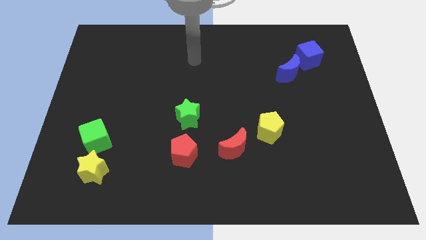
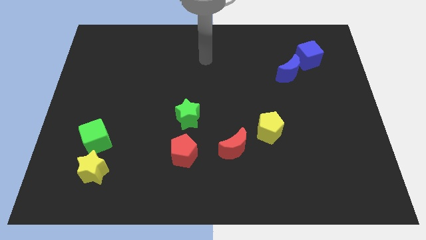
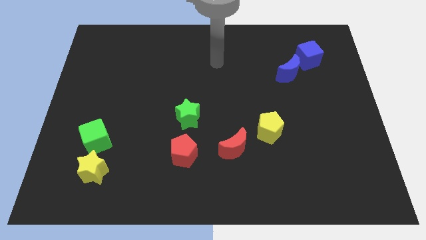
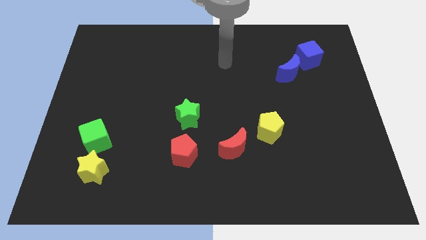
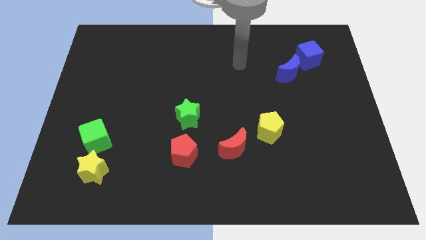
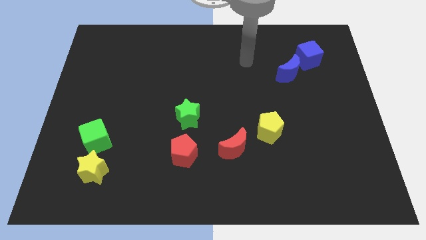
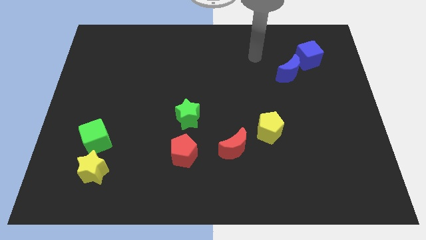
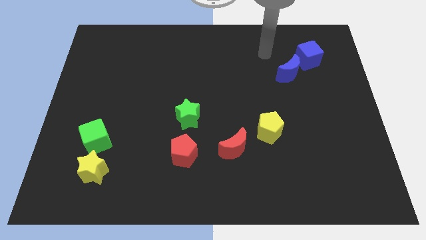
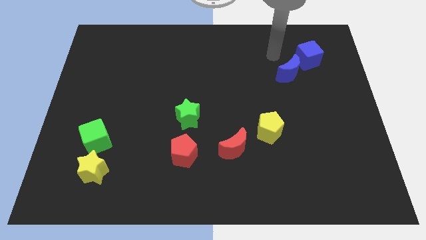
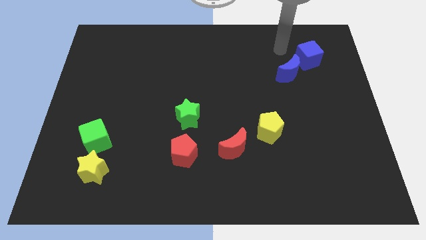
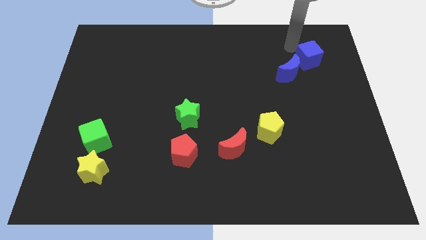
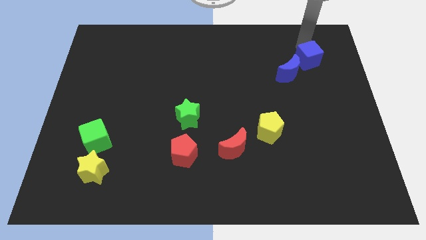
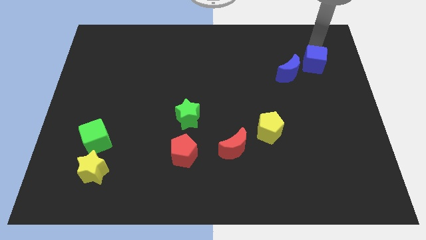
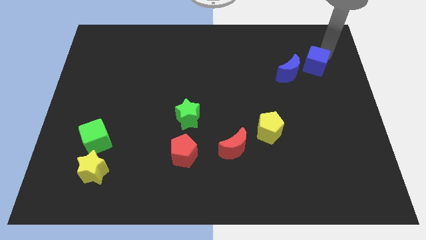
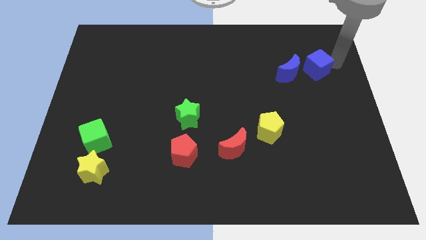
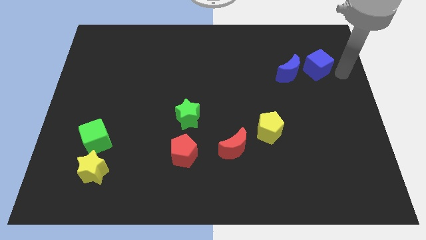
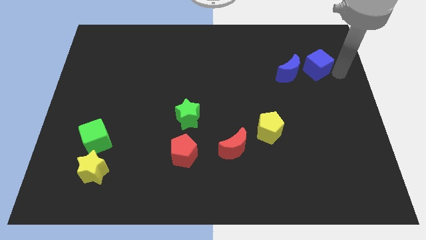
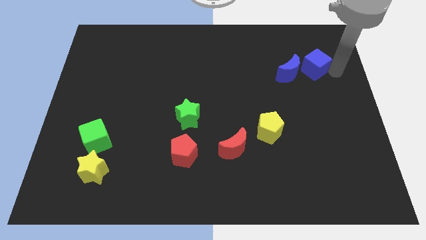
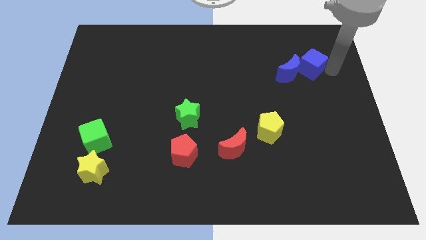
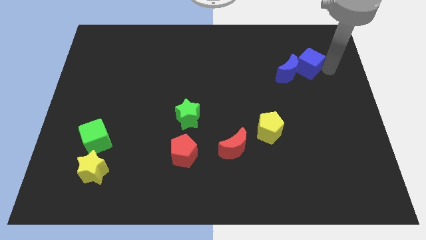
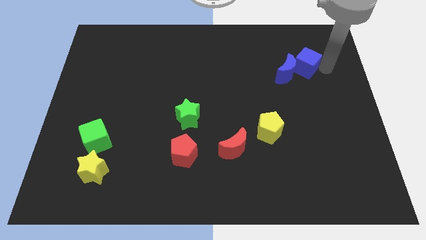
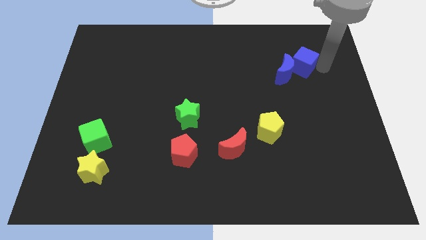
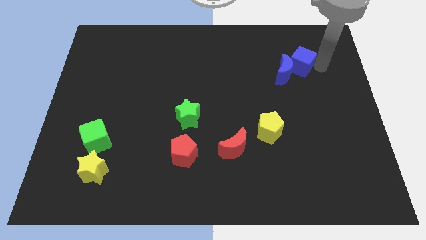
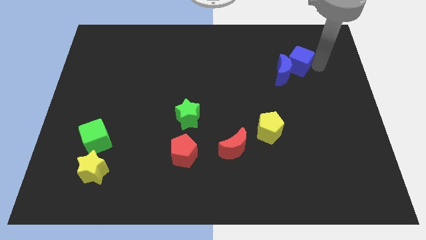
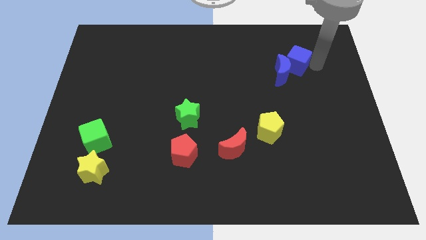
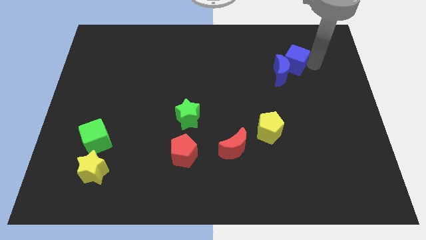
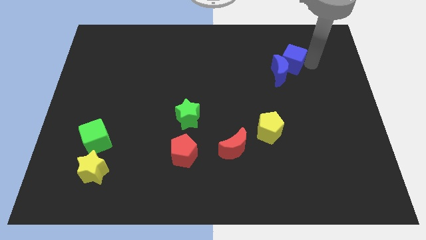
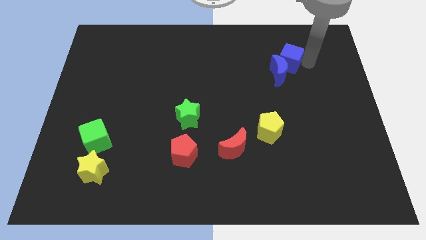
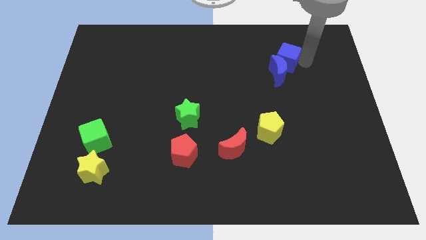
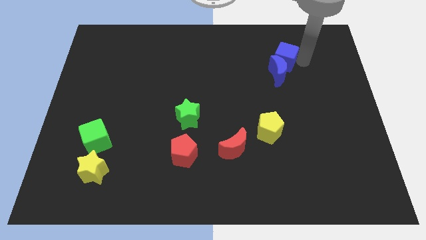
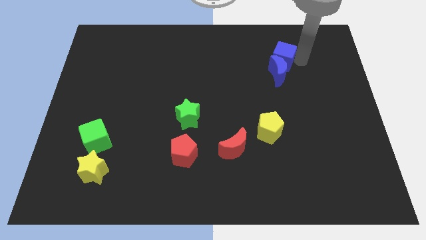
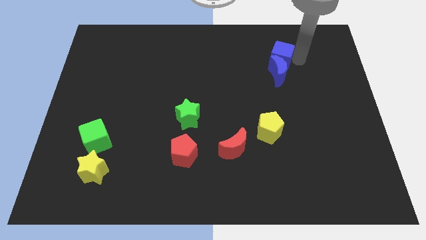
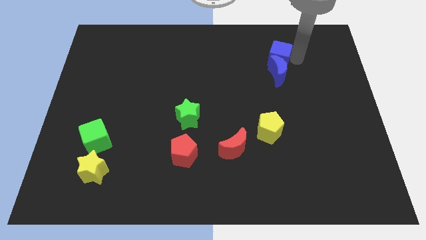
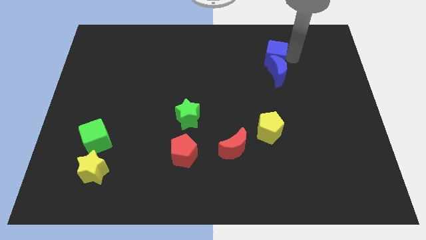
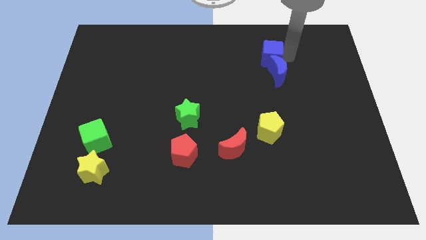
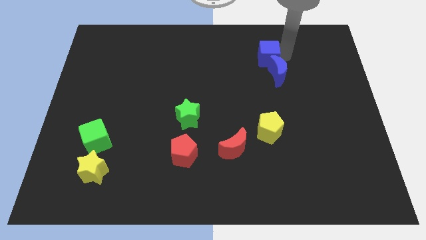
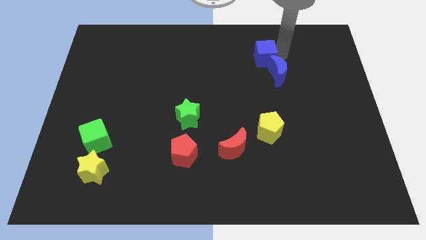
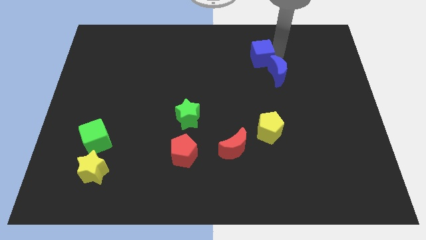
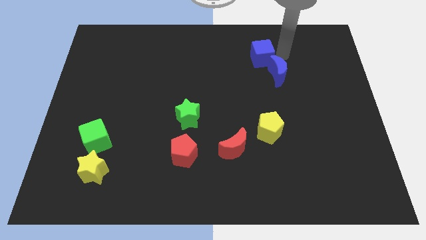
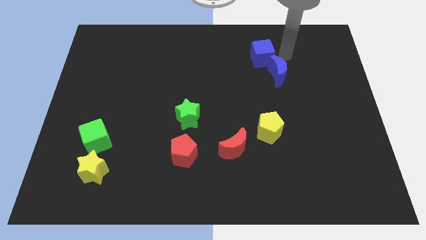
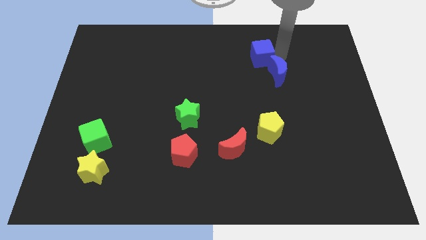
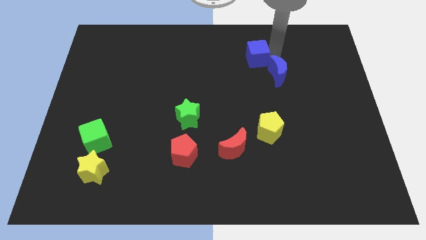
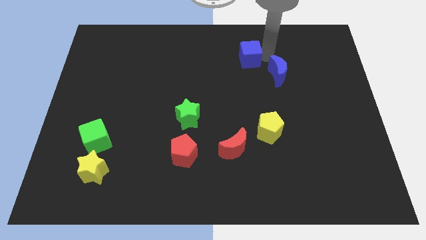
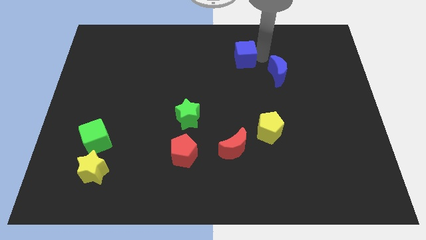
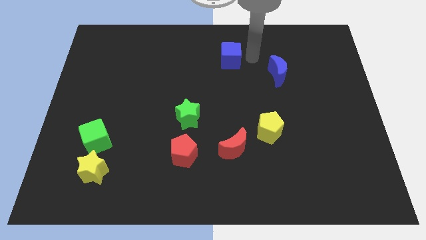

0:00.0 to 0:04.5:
move the blue cube left

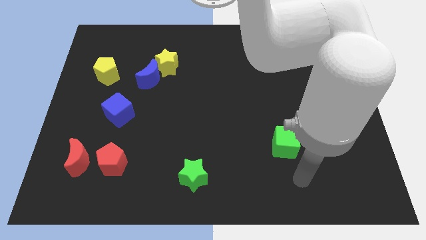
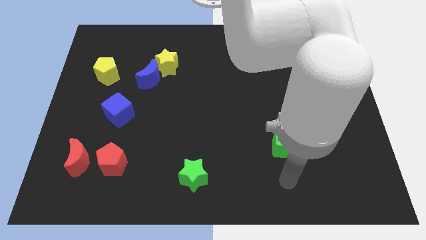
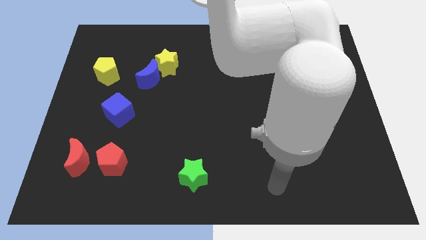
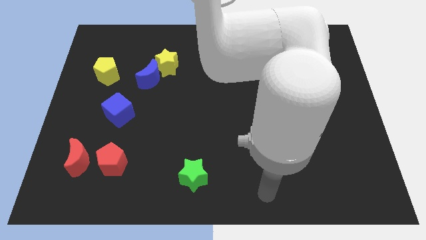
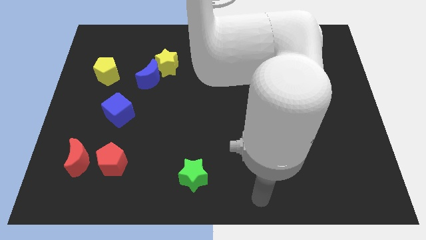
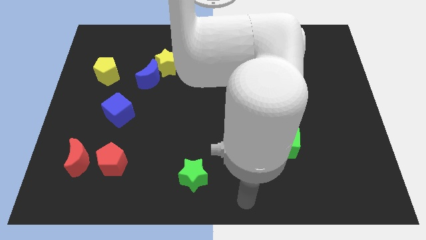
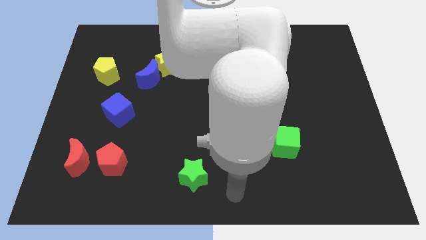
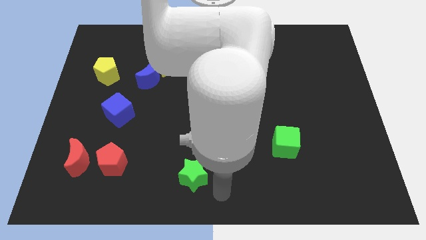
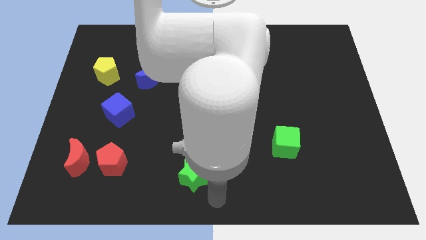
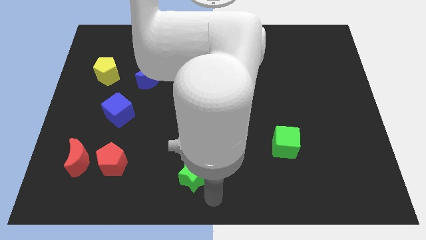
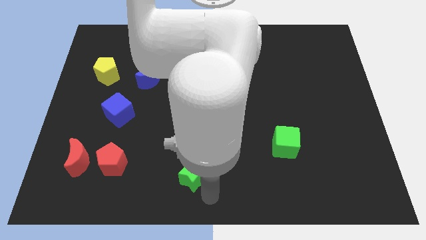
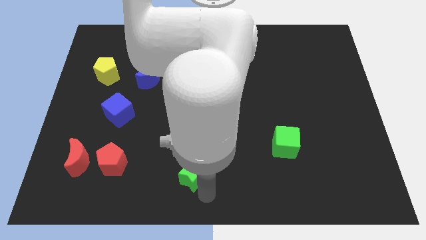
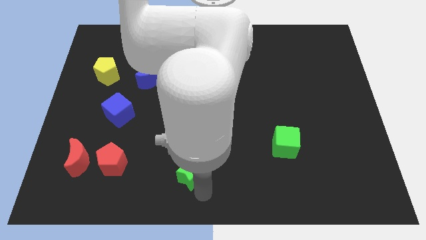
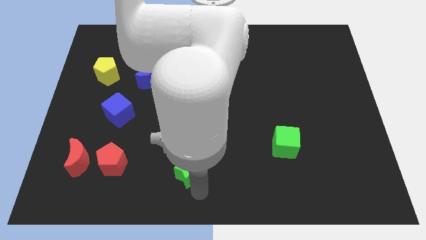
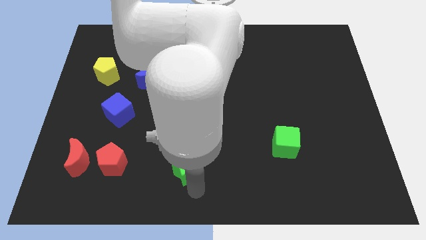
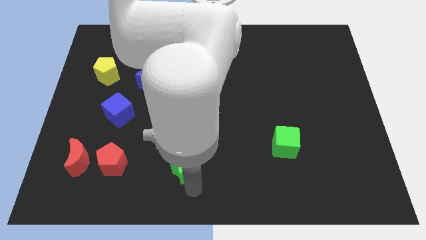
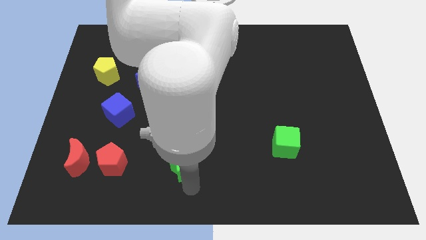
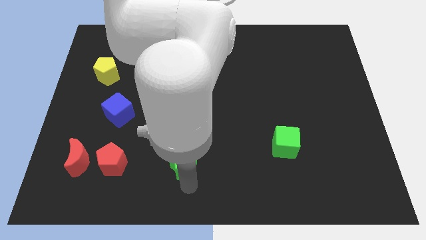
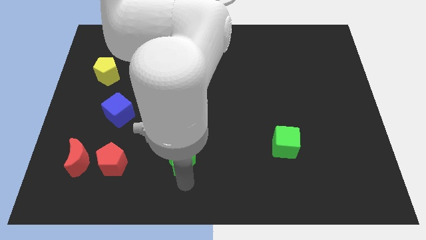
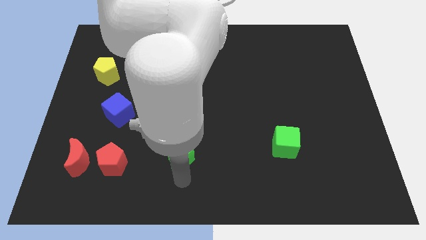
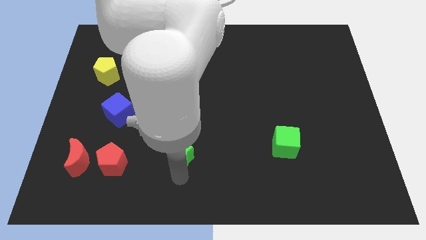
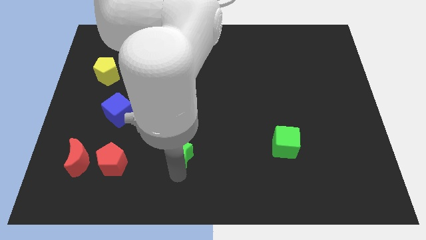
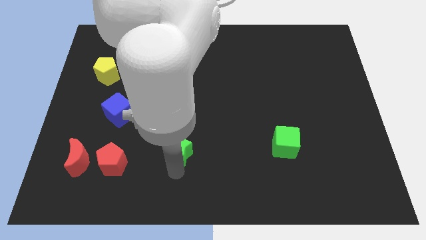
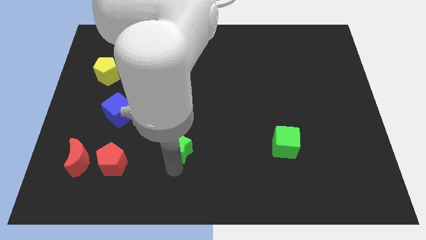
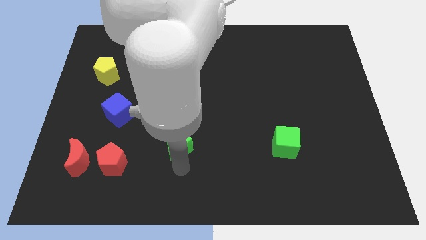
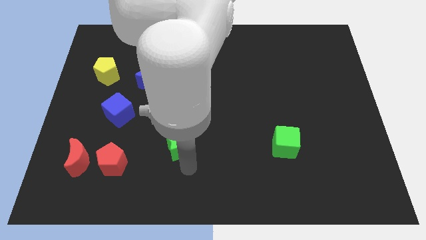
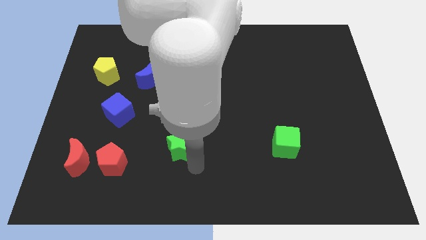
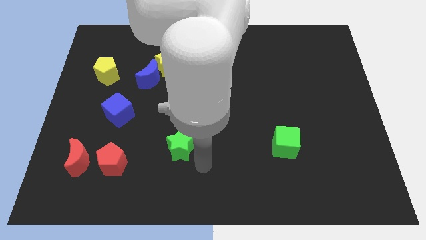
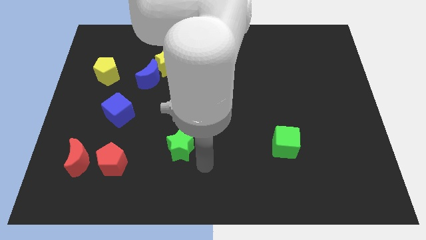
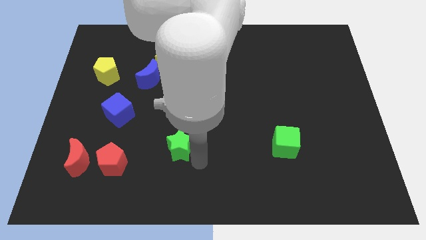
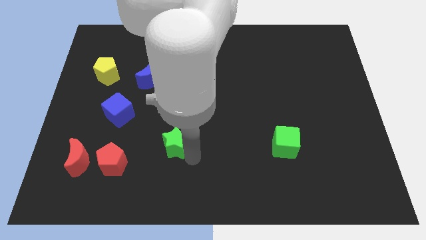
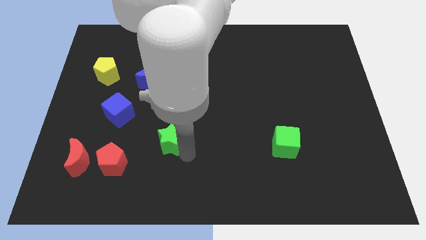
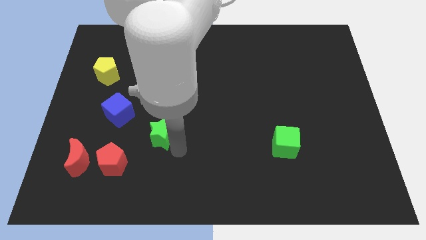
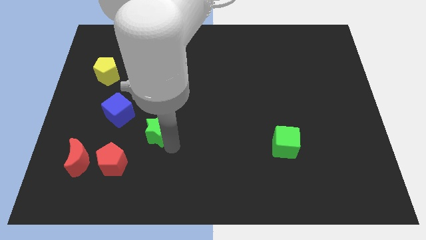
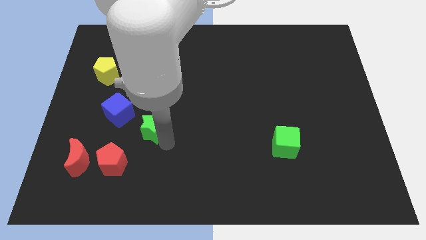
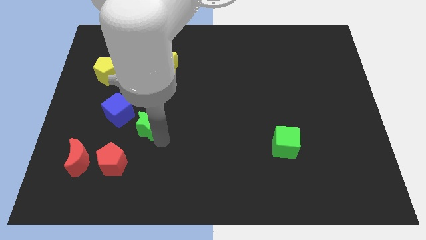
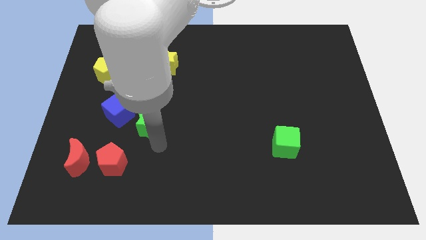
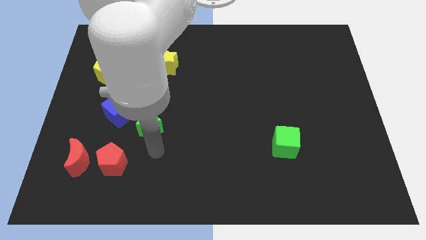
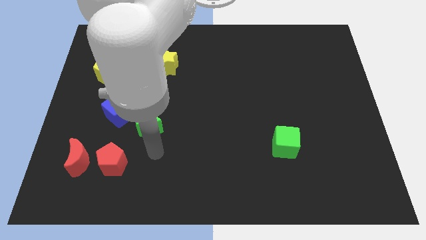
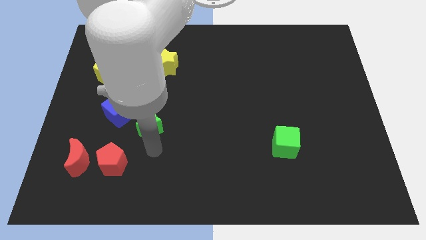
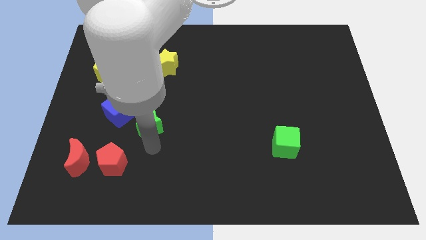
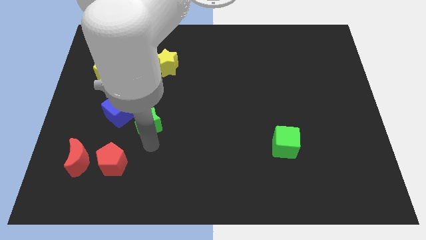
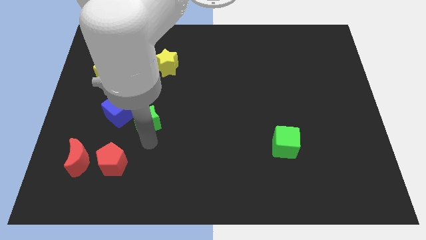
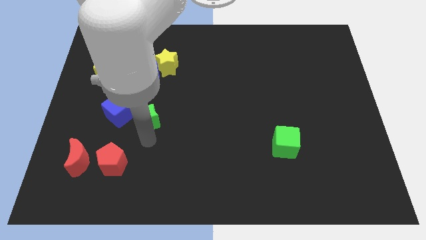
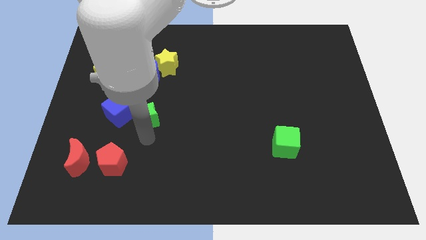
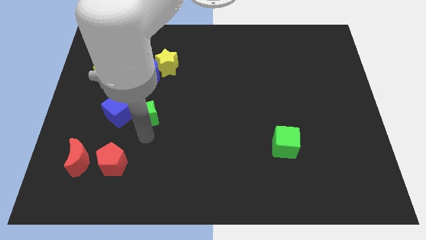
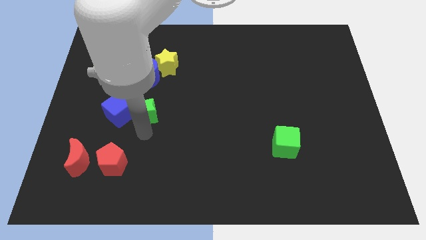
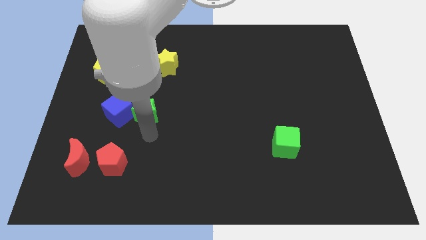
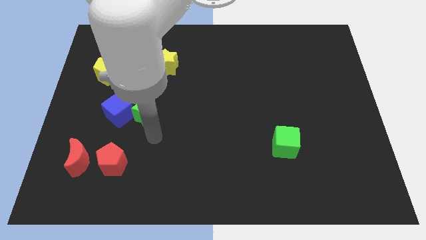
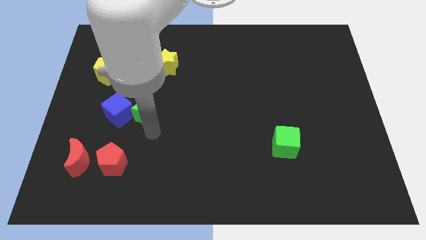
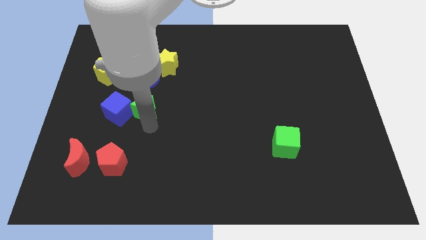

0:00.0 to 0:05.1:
slide the green star upwards and to the left
